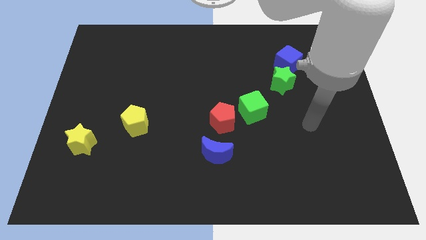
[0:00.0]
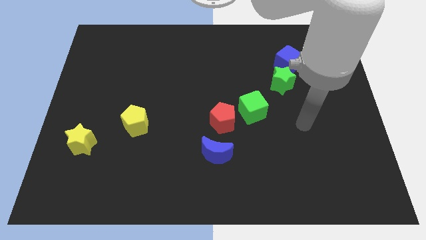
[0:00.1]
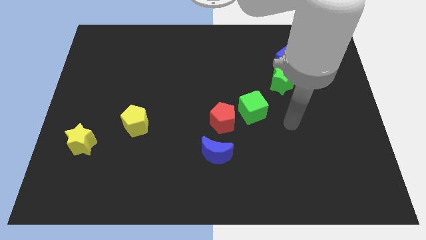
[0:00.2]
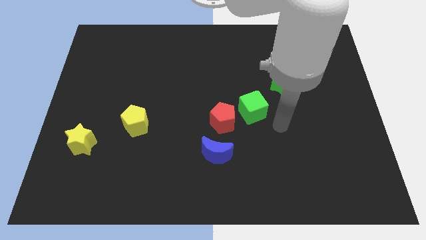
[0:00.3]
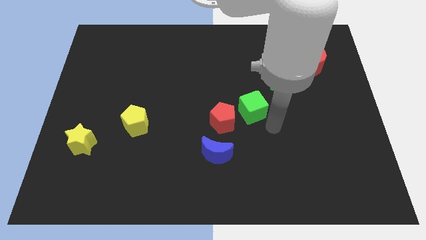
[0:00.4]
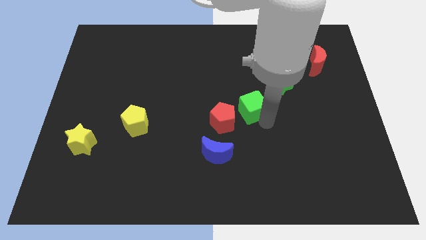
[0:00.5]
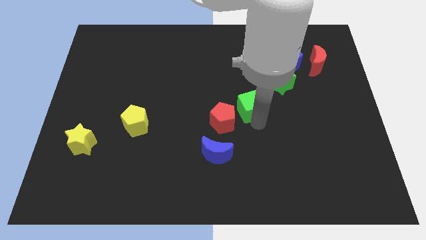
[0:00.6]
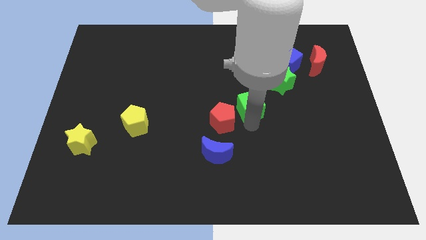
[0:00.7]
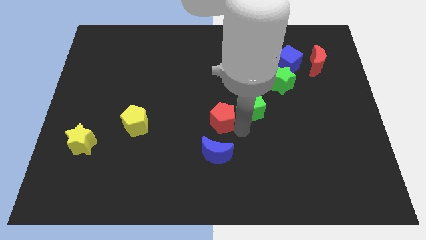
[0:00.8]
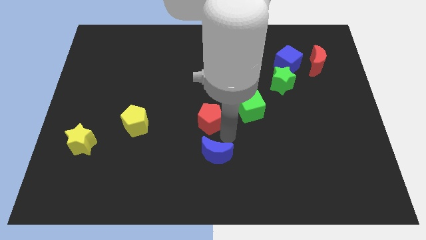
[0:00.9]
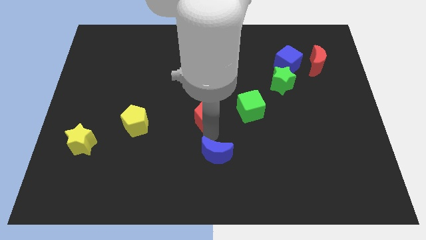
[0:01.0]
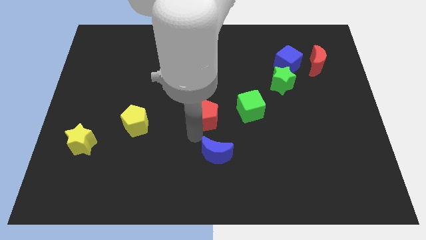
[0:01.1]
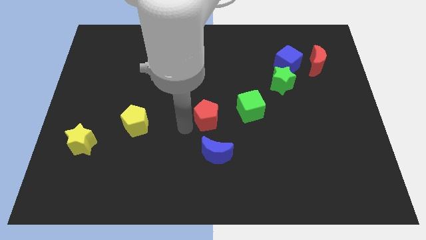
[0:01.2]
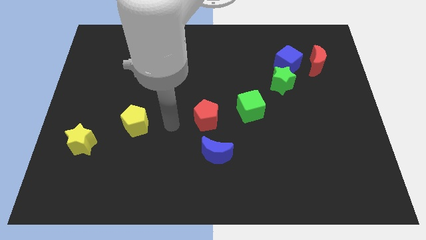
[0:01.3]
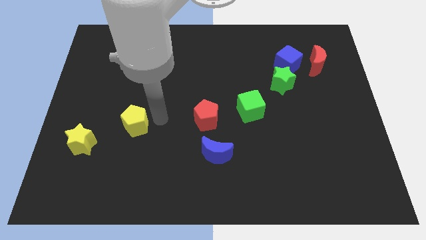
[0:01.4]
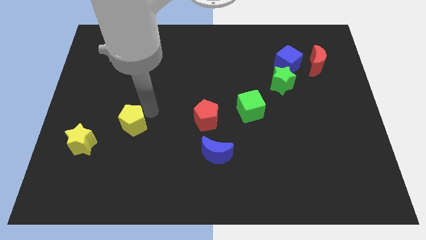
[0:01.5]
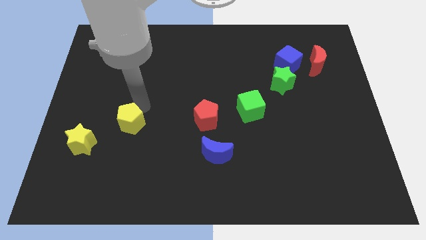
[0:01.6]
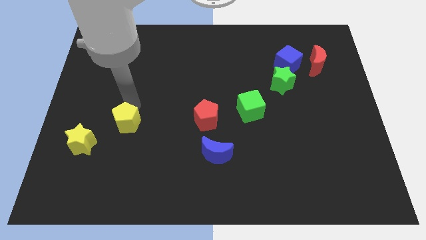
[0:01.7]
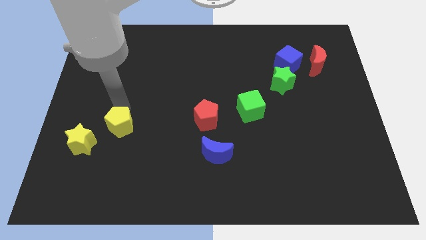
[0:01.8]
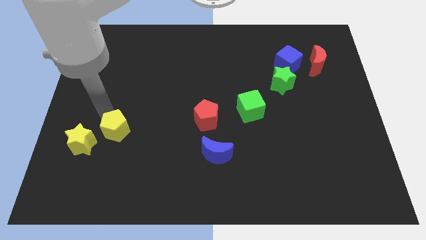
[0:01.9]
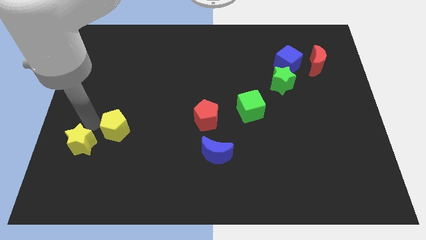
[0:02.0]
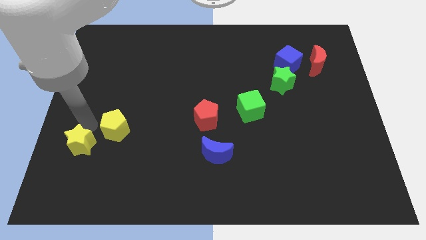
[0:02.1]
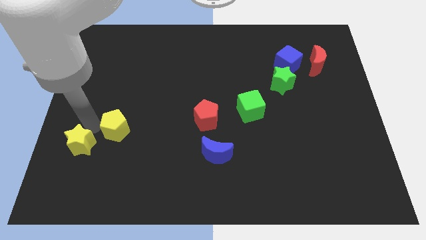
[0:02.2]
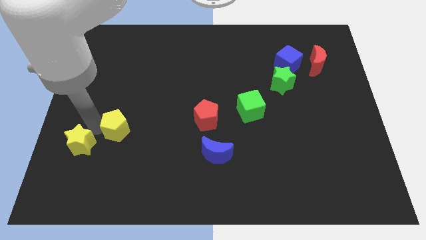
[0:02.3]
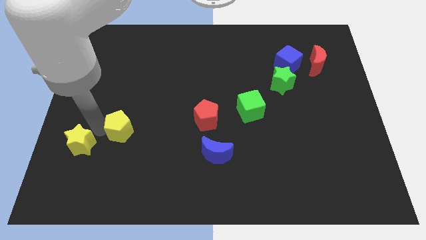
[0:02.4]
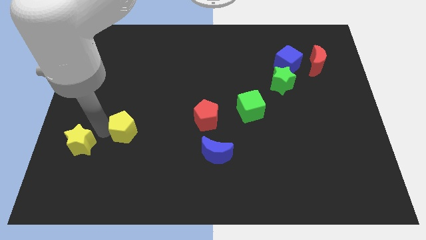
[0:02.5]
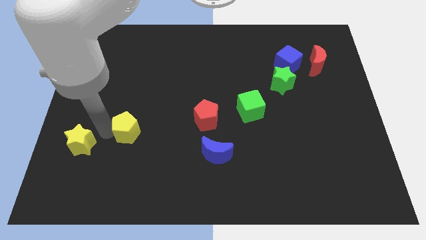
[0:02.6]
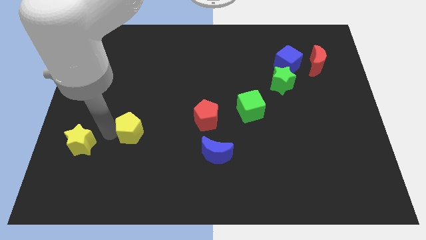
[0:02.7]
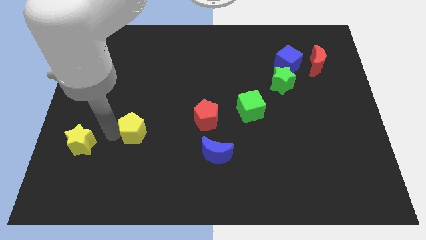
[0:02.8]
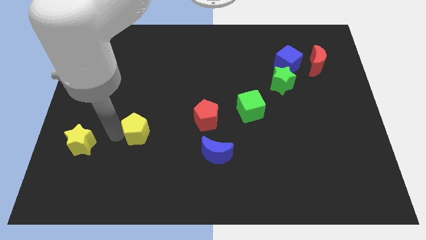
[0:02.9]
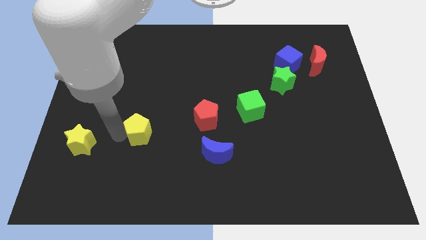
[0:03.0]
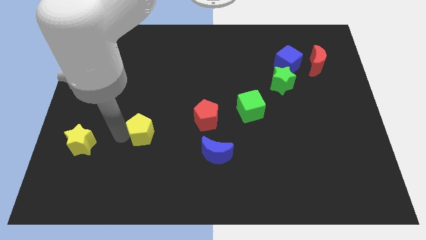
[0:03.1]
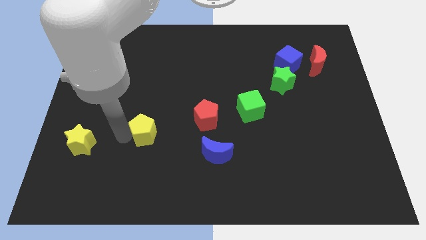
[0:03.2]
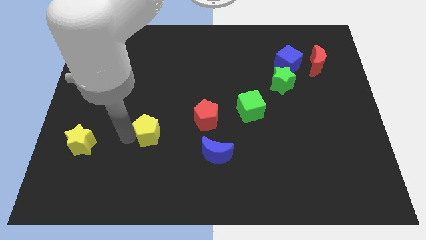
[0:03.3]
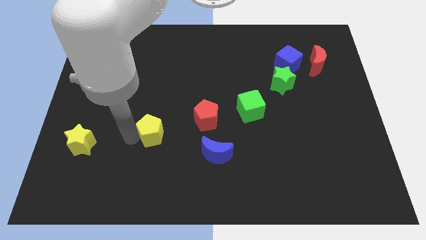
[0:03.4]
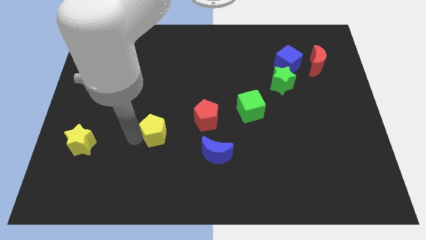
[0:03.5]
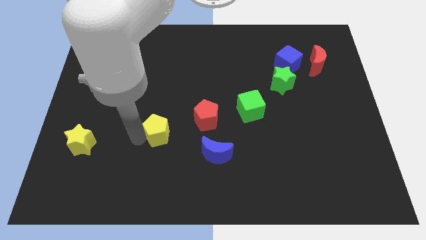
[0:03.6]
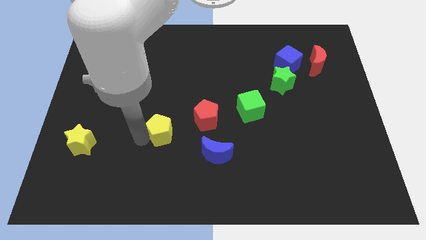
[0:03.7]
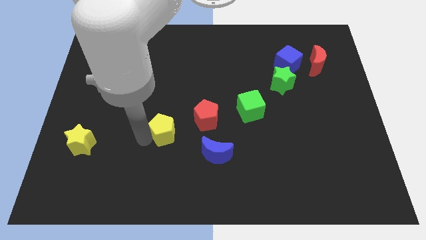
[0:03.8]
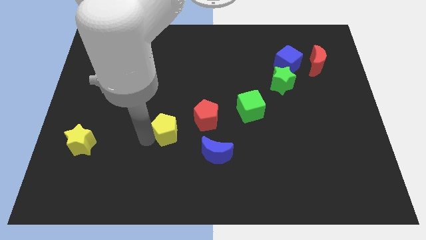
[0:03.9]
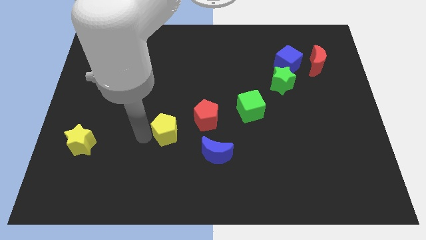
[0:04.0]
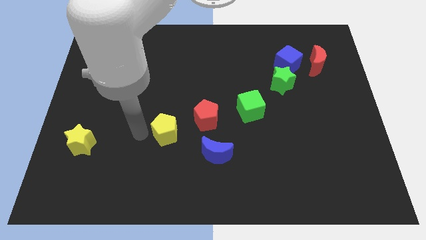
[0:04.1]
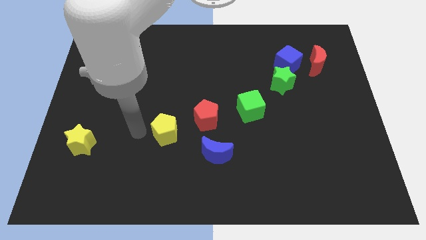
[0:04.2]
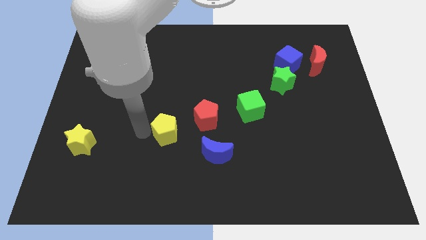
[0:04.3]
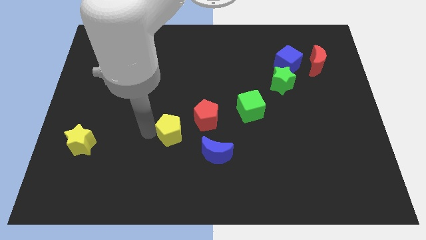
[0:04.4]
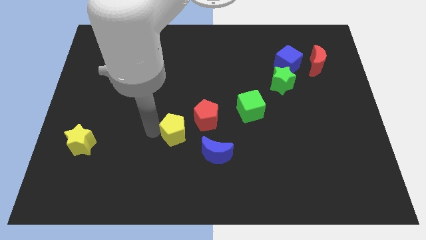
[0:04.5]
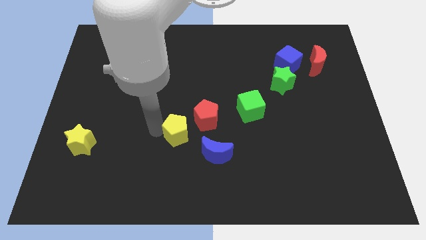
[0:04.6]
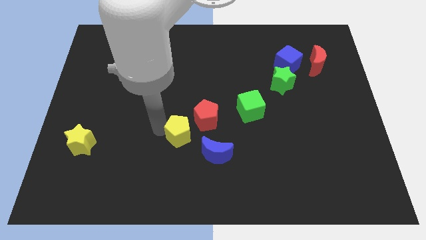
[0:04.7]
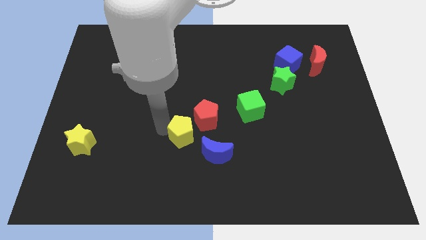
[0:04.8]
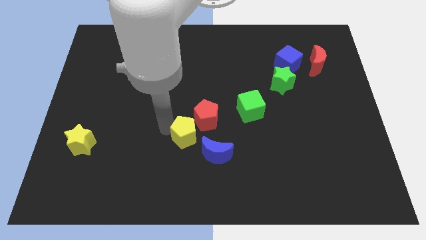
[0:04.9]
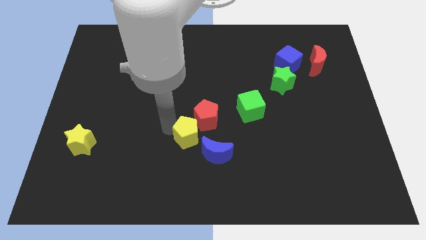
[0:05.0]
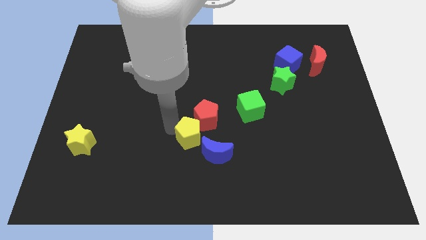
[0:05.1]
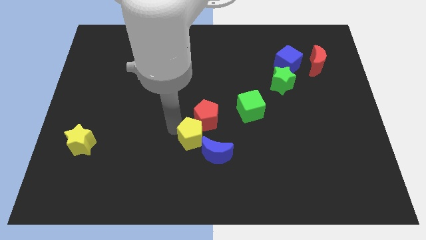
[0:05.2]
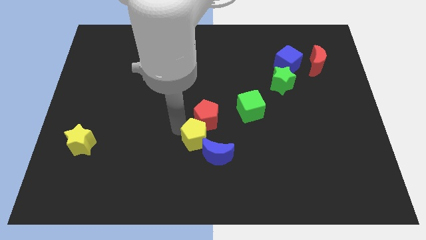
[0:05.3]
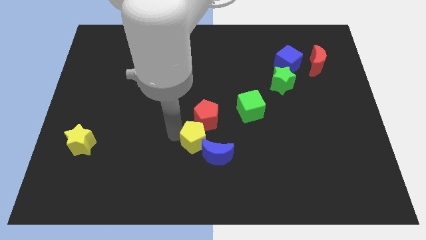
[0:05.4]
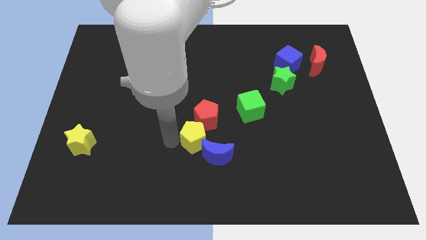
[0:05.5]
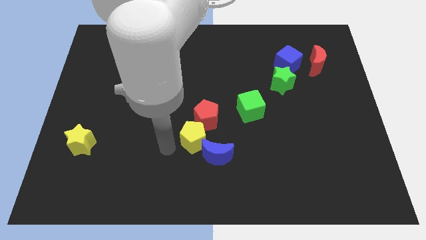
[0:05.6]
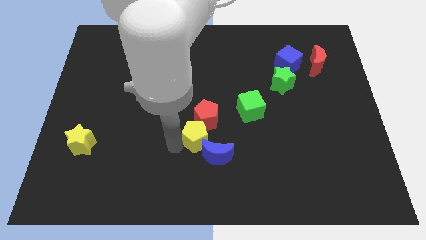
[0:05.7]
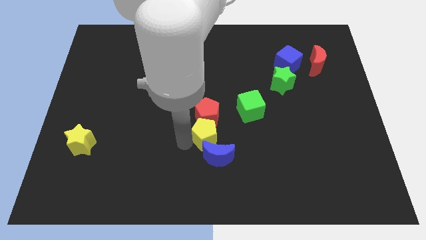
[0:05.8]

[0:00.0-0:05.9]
push the yellow pentagon to the bottom left of the green cube

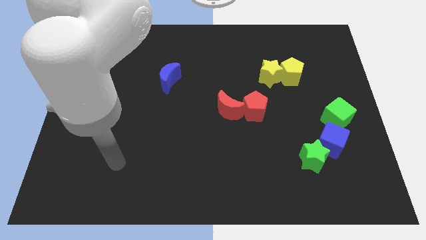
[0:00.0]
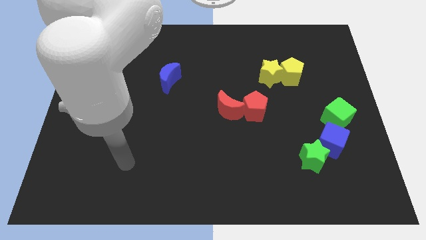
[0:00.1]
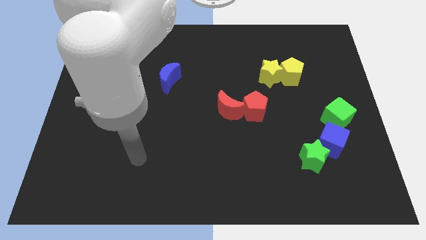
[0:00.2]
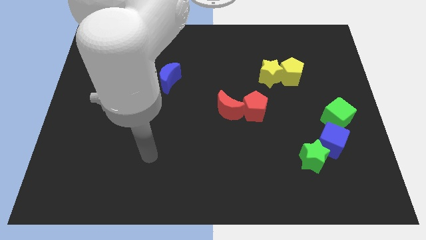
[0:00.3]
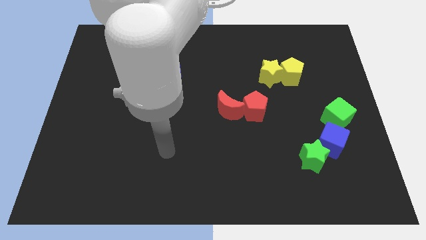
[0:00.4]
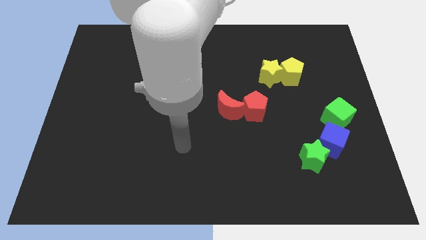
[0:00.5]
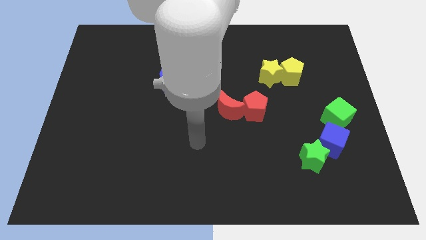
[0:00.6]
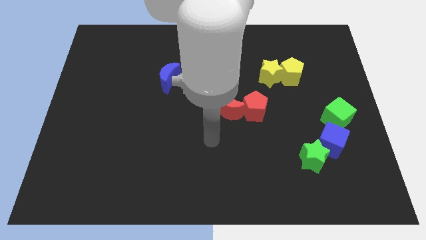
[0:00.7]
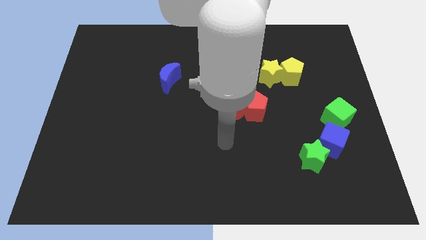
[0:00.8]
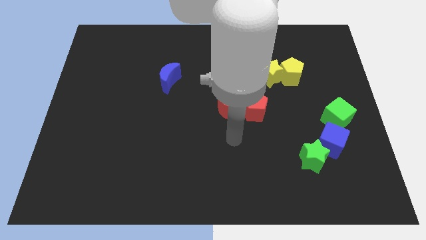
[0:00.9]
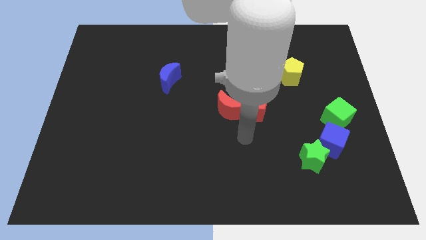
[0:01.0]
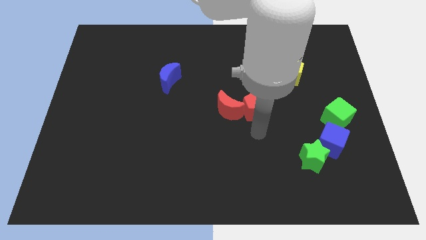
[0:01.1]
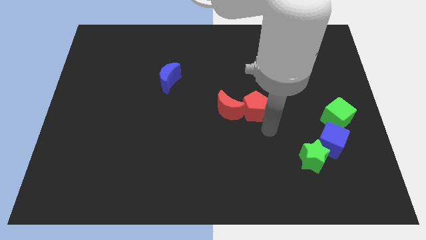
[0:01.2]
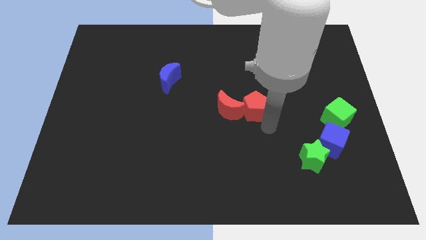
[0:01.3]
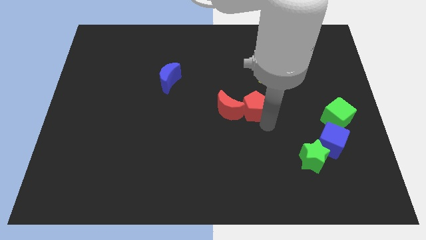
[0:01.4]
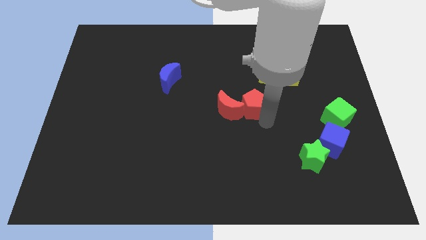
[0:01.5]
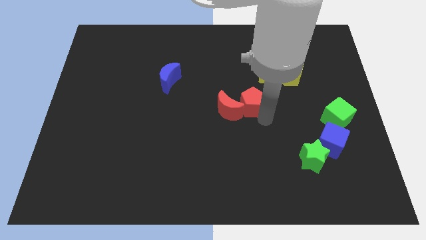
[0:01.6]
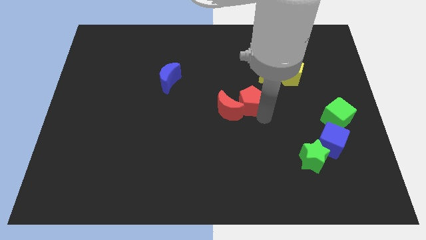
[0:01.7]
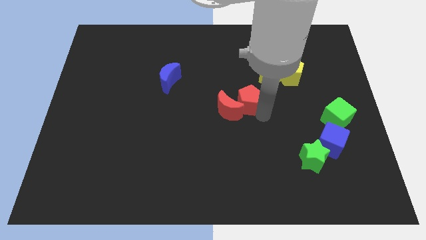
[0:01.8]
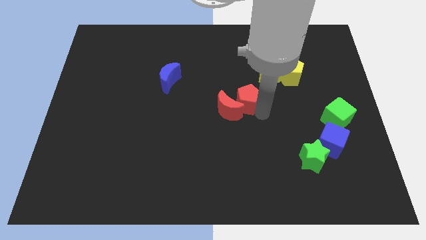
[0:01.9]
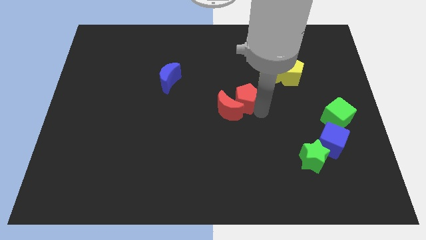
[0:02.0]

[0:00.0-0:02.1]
put the red pentagon to the top of the red moon
